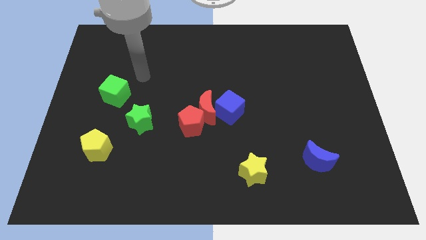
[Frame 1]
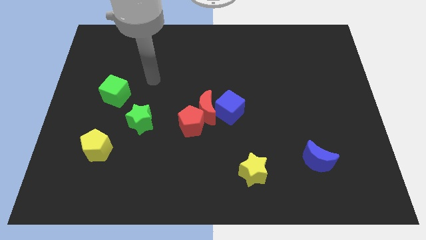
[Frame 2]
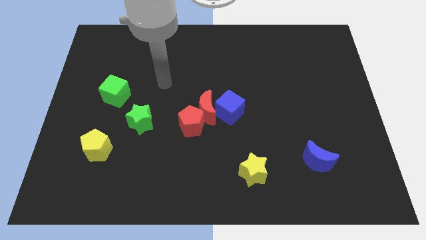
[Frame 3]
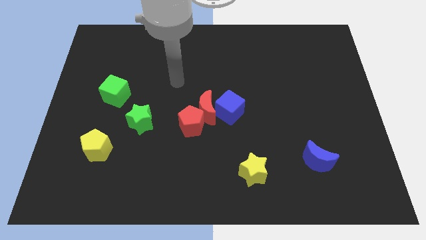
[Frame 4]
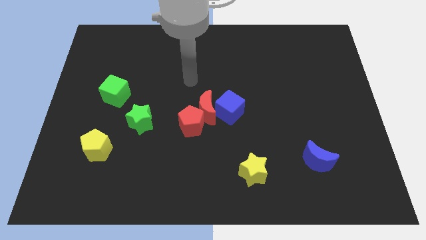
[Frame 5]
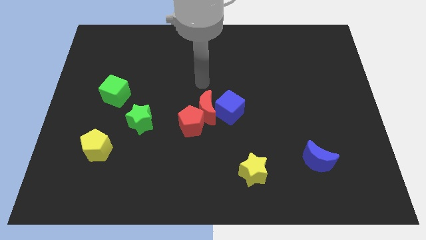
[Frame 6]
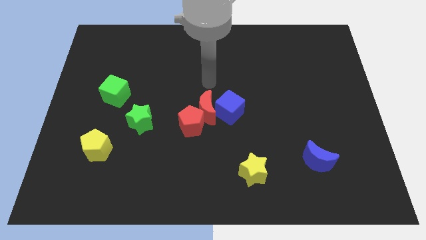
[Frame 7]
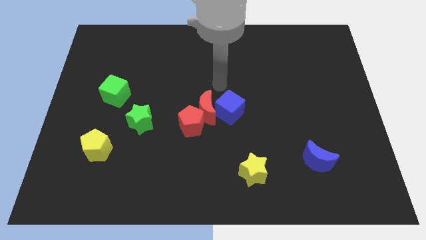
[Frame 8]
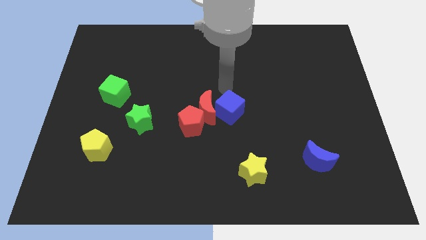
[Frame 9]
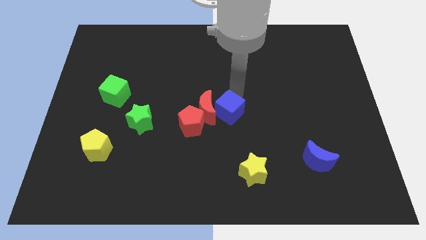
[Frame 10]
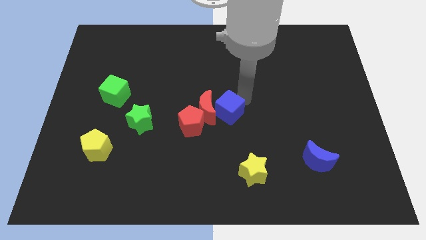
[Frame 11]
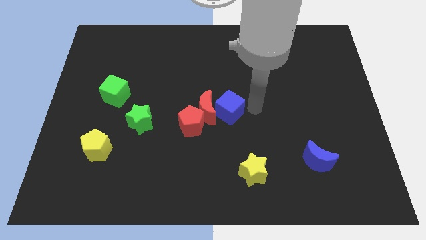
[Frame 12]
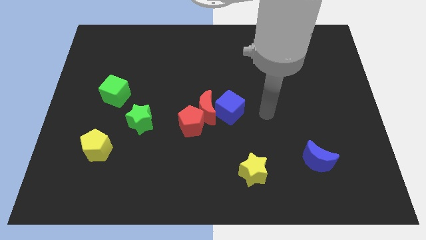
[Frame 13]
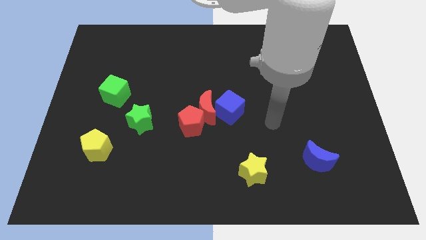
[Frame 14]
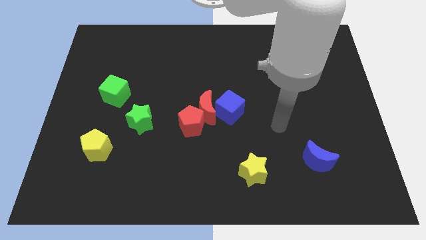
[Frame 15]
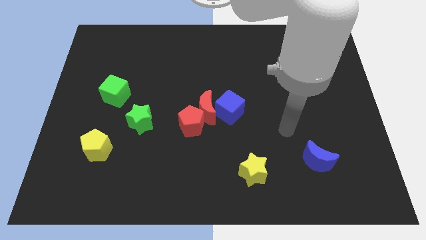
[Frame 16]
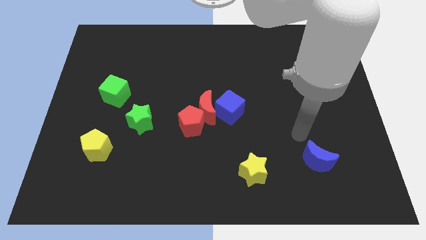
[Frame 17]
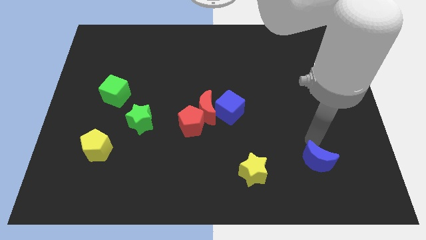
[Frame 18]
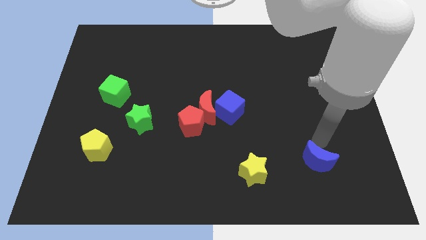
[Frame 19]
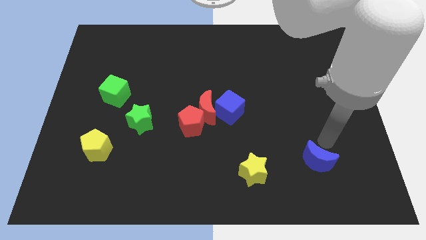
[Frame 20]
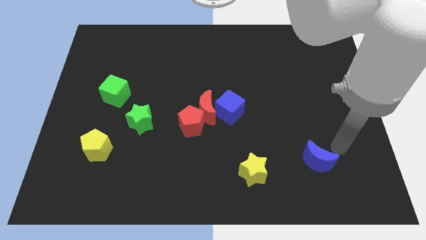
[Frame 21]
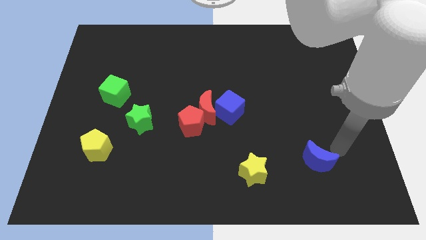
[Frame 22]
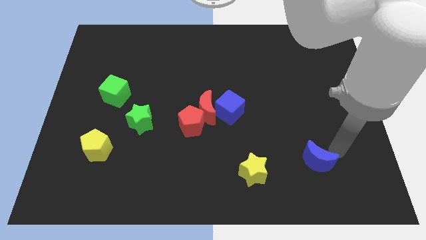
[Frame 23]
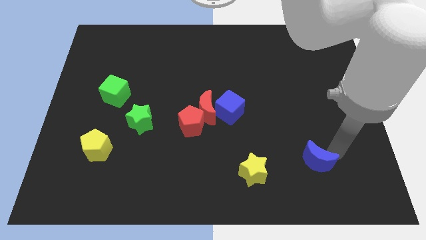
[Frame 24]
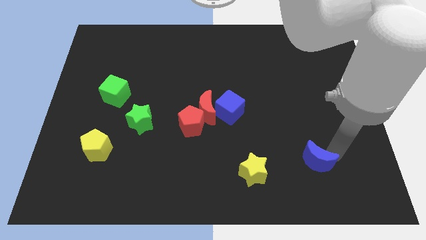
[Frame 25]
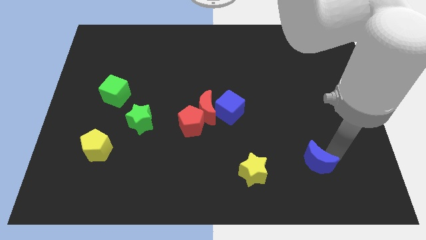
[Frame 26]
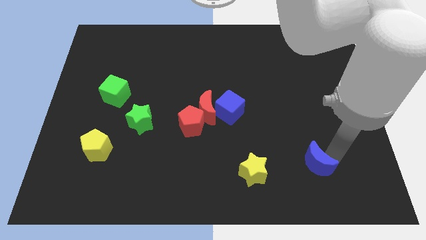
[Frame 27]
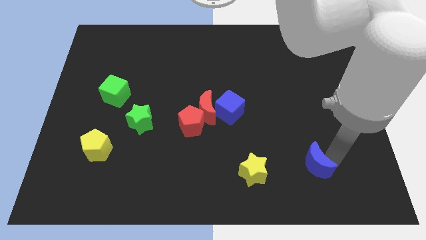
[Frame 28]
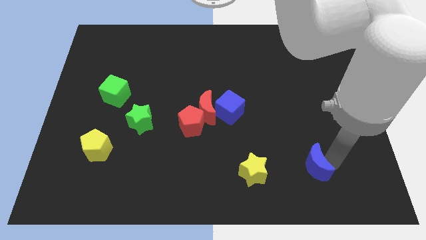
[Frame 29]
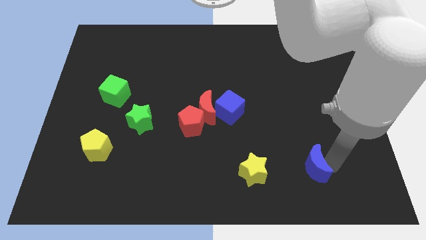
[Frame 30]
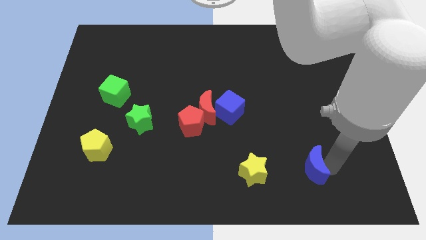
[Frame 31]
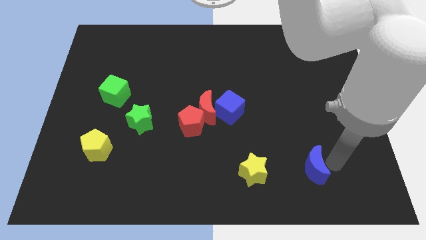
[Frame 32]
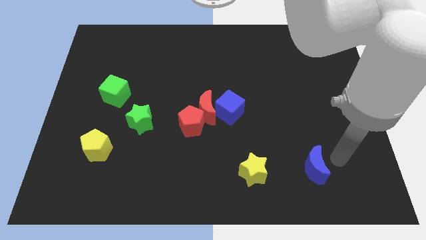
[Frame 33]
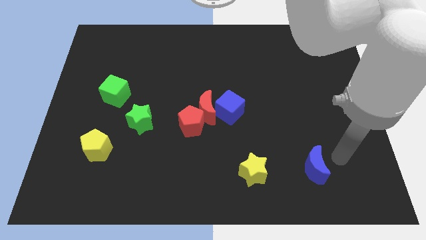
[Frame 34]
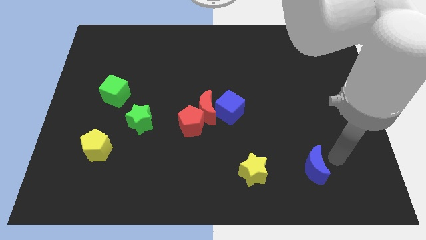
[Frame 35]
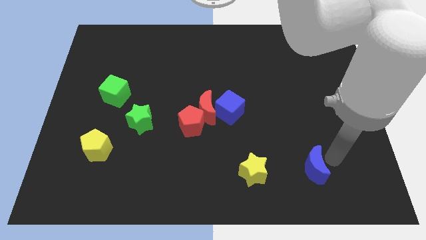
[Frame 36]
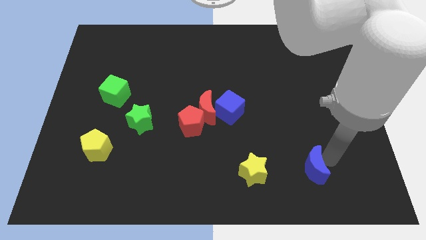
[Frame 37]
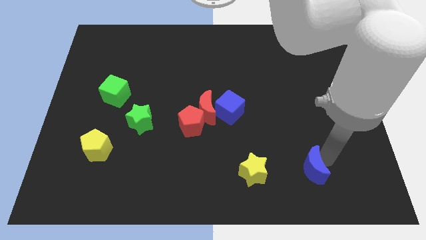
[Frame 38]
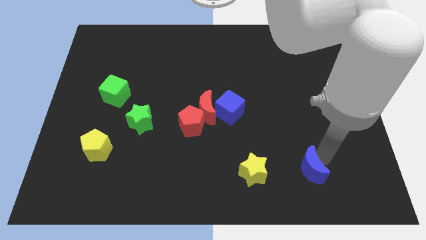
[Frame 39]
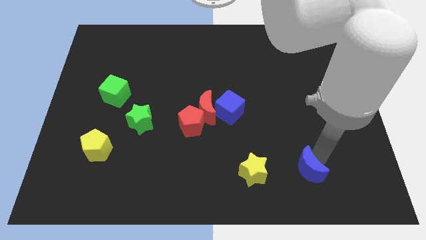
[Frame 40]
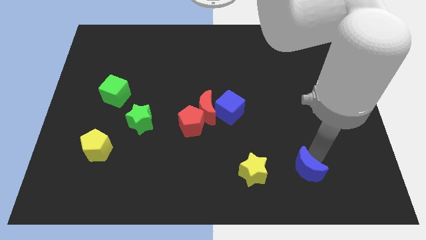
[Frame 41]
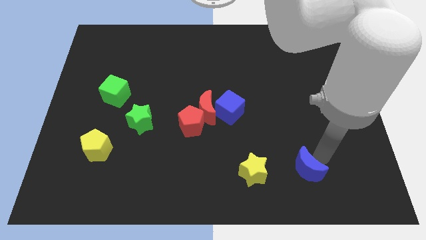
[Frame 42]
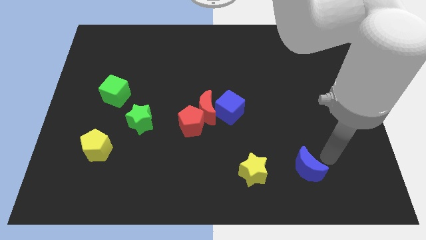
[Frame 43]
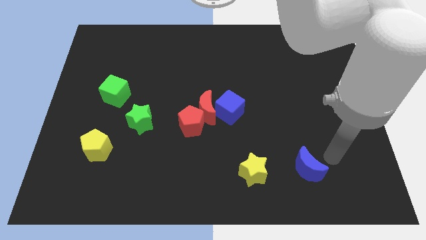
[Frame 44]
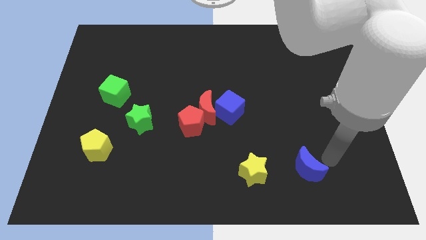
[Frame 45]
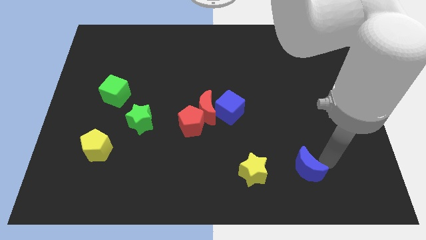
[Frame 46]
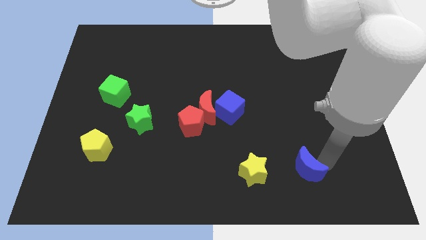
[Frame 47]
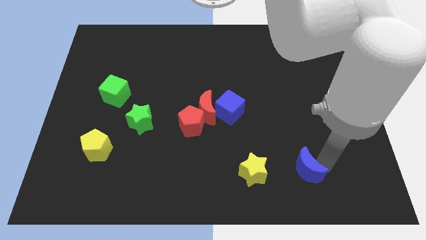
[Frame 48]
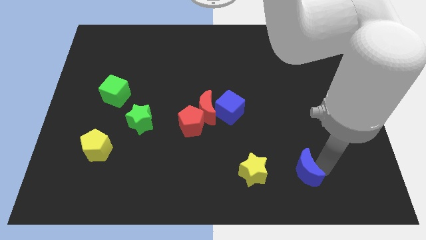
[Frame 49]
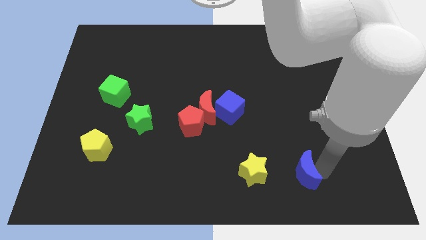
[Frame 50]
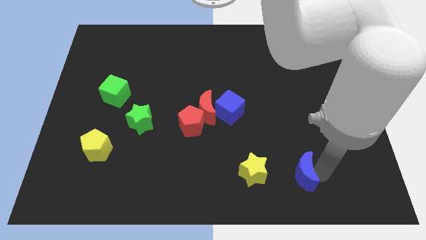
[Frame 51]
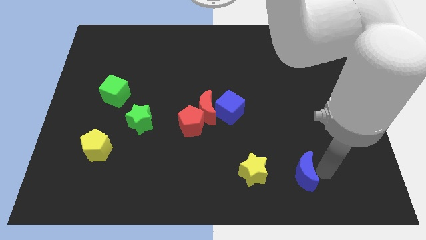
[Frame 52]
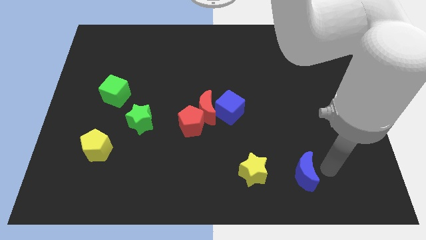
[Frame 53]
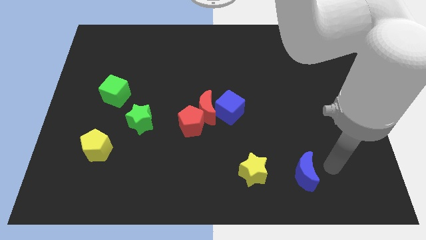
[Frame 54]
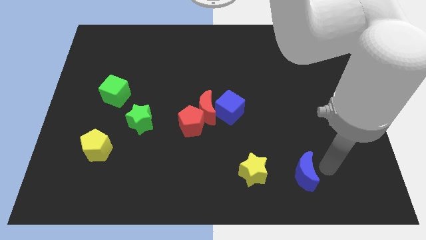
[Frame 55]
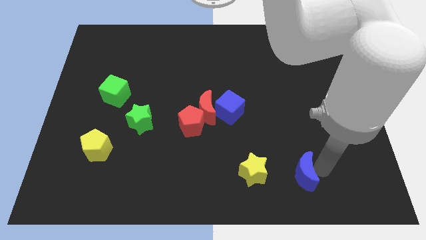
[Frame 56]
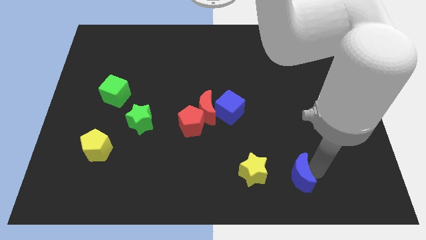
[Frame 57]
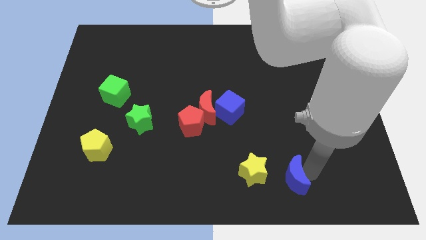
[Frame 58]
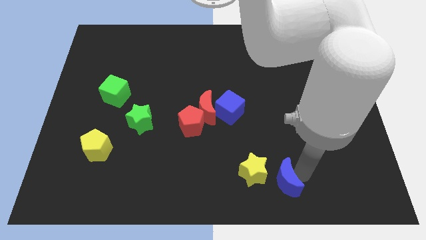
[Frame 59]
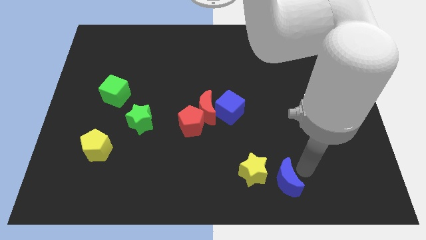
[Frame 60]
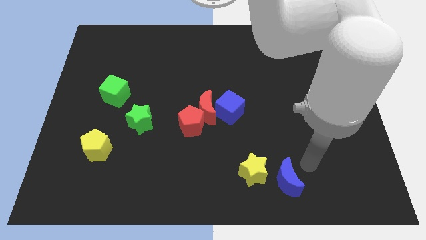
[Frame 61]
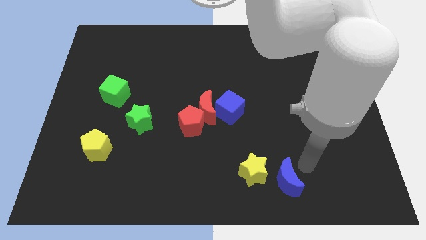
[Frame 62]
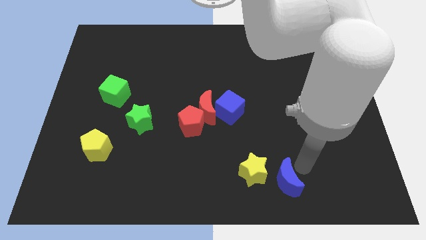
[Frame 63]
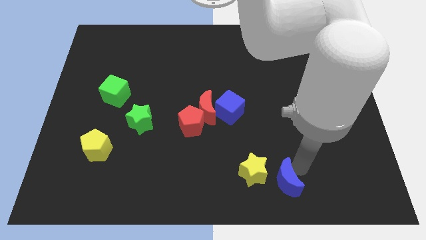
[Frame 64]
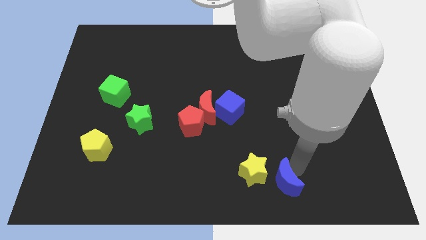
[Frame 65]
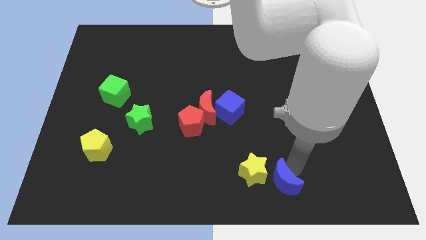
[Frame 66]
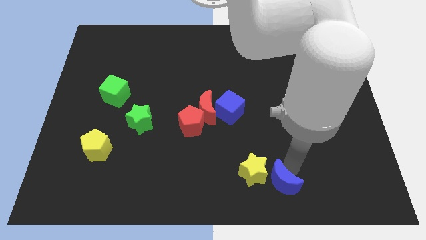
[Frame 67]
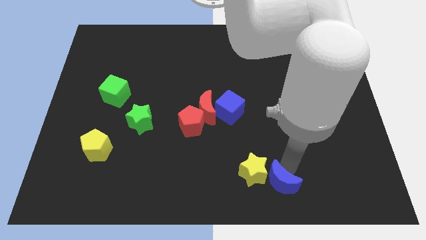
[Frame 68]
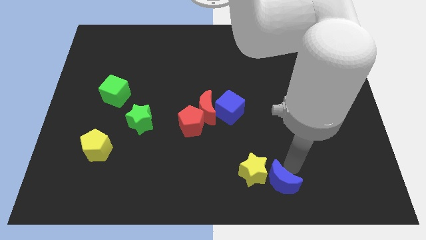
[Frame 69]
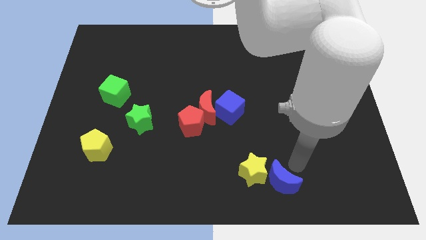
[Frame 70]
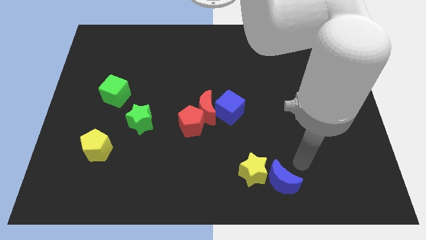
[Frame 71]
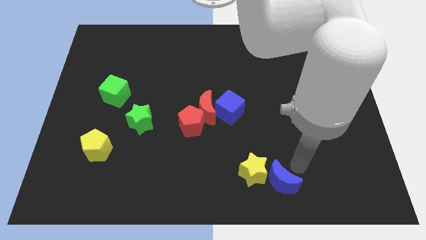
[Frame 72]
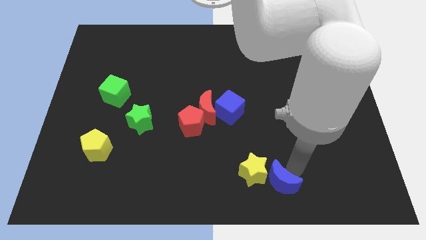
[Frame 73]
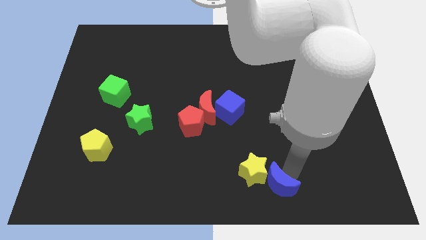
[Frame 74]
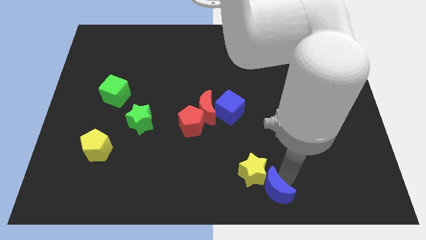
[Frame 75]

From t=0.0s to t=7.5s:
slide the blue moon to the bottom
